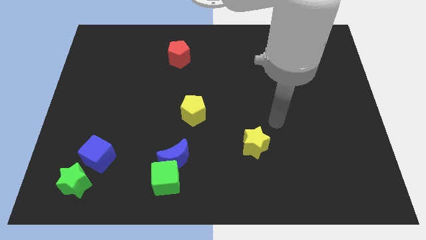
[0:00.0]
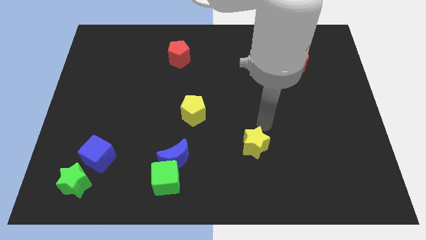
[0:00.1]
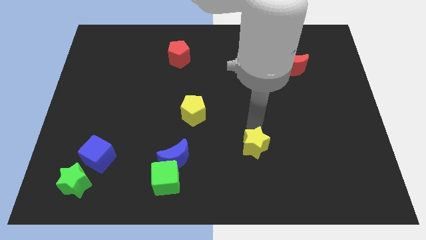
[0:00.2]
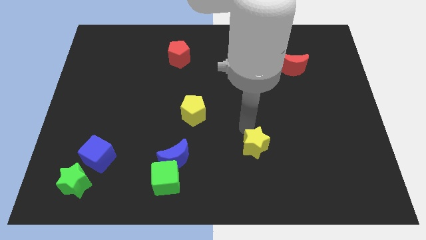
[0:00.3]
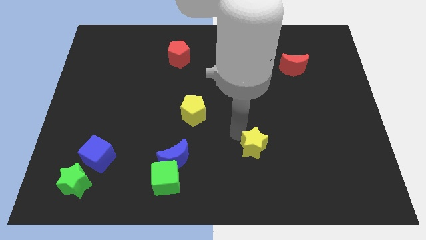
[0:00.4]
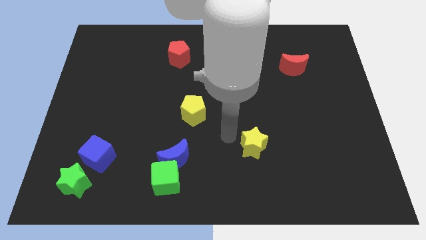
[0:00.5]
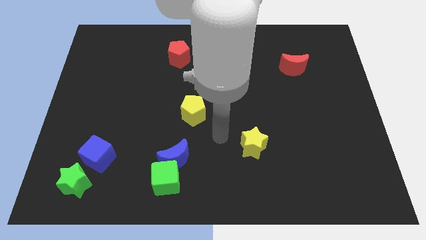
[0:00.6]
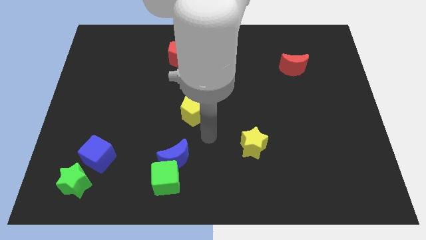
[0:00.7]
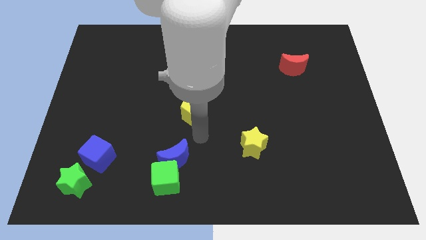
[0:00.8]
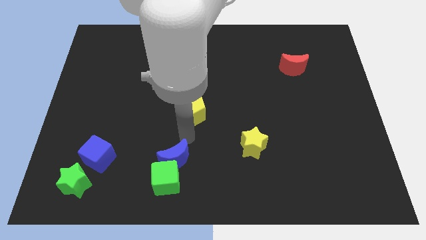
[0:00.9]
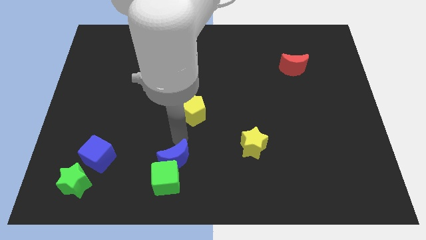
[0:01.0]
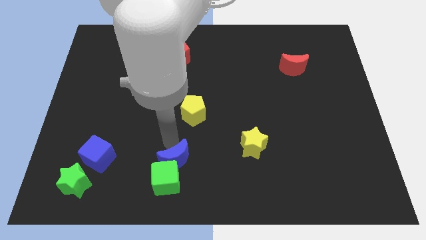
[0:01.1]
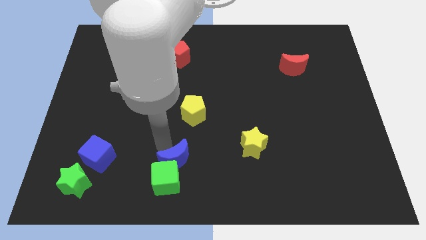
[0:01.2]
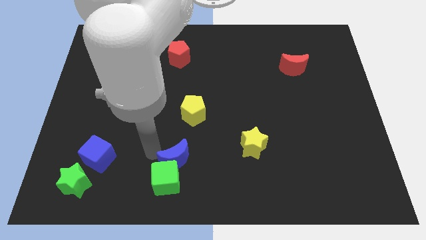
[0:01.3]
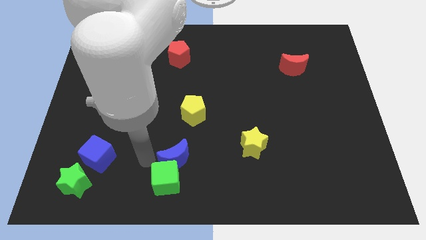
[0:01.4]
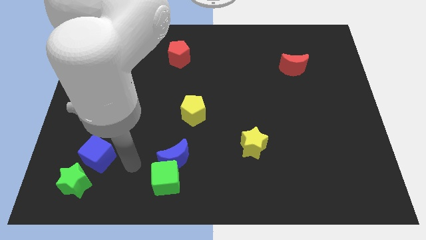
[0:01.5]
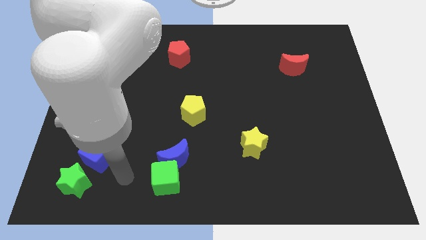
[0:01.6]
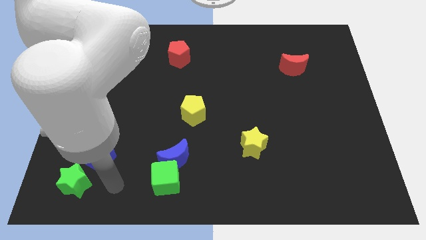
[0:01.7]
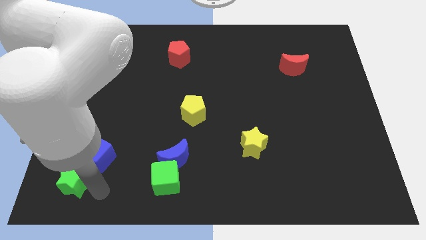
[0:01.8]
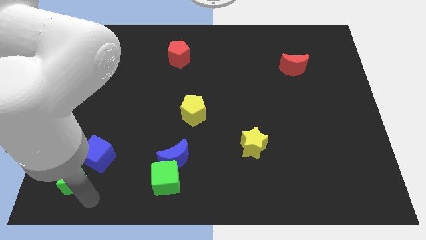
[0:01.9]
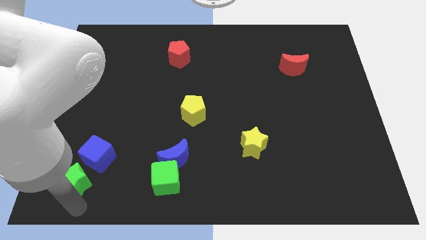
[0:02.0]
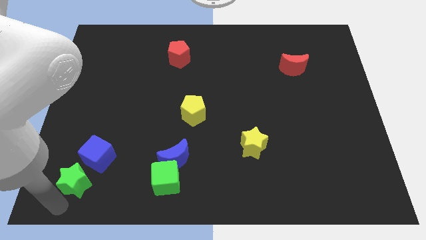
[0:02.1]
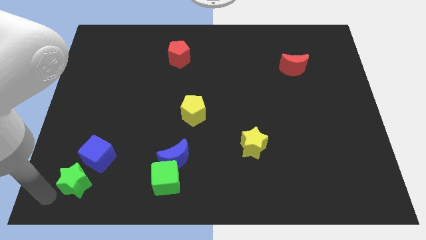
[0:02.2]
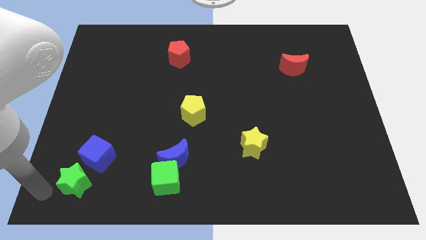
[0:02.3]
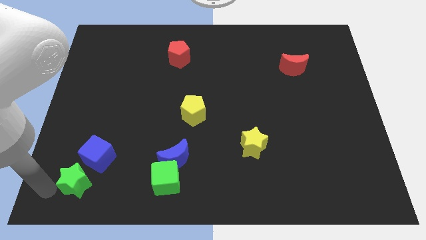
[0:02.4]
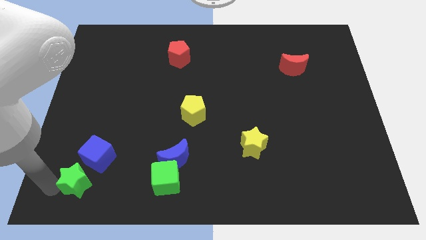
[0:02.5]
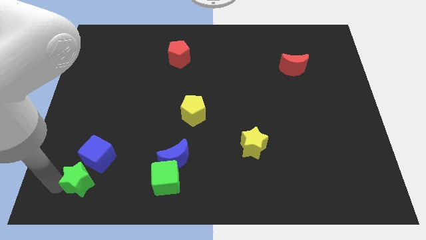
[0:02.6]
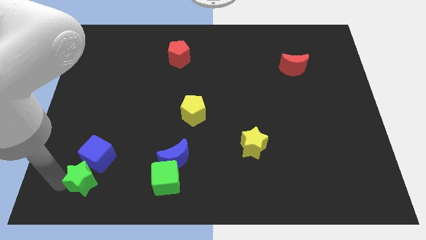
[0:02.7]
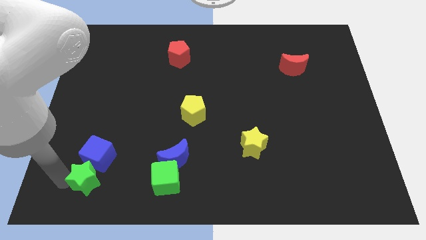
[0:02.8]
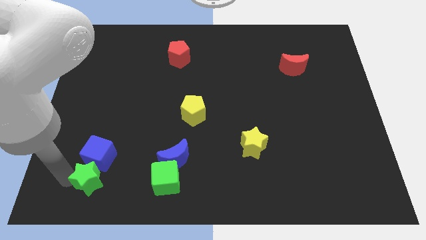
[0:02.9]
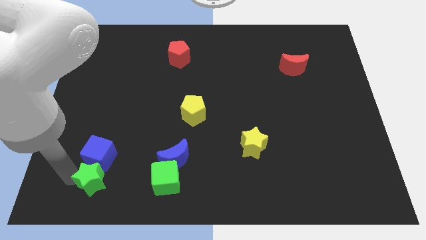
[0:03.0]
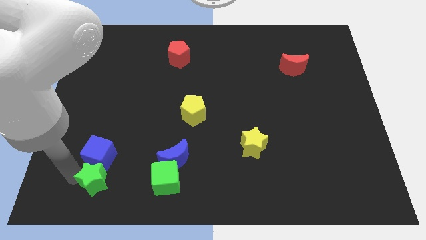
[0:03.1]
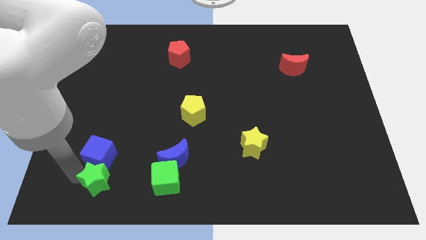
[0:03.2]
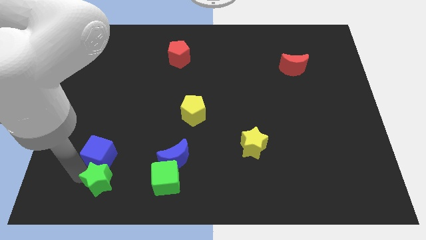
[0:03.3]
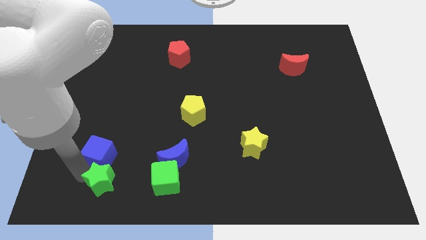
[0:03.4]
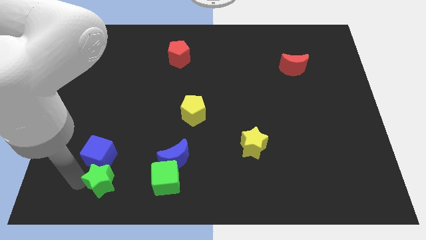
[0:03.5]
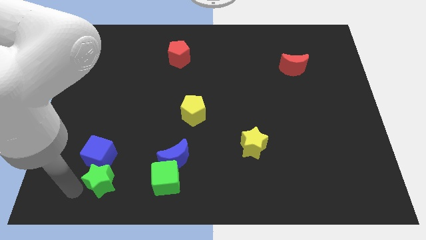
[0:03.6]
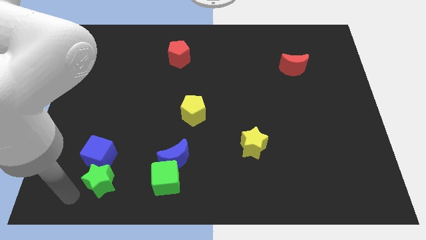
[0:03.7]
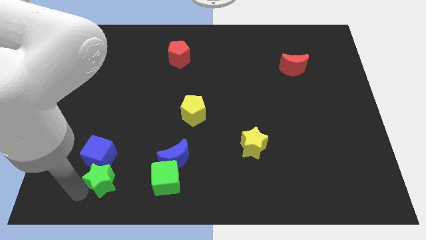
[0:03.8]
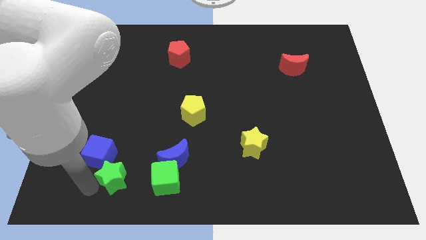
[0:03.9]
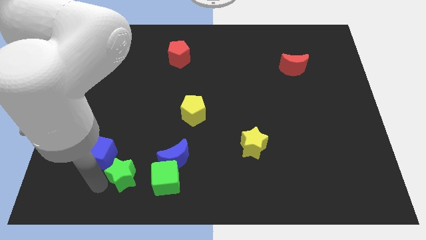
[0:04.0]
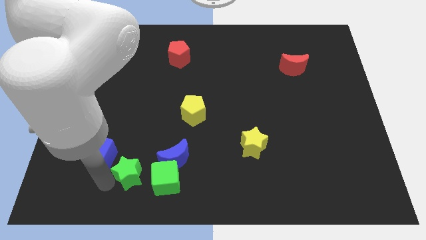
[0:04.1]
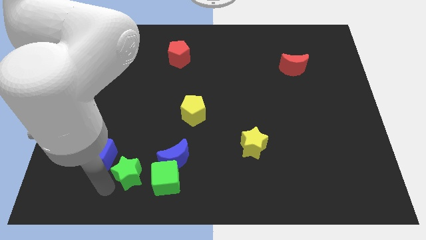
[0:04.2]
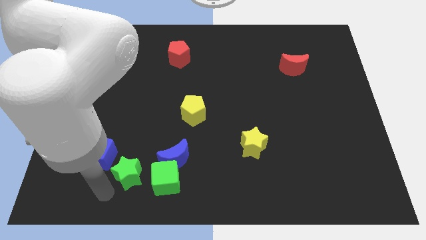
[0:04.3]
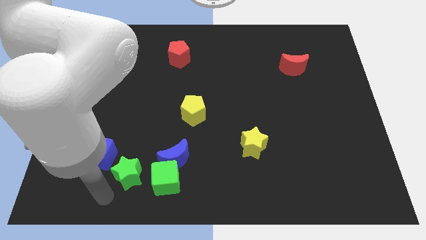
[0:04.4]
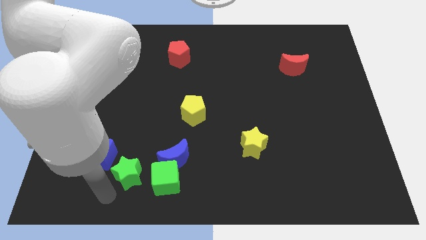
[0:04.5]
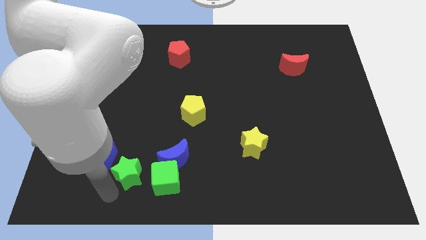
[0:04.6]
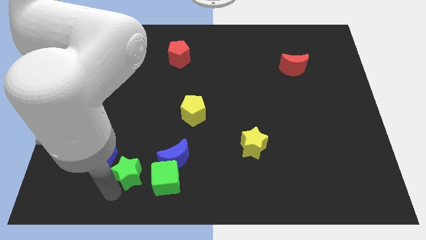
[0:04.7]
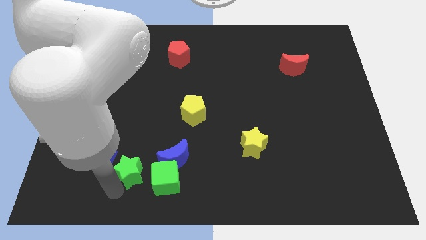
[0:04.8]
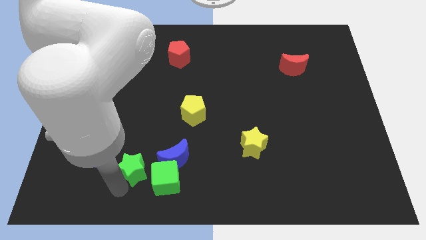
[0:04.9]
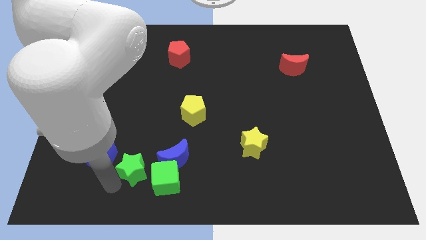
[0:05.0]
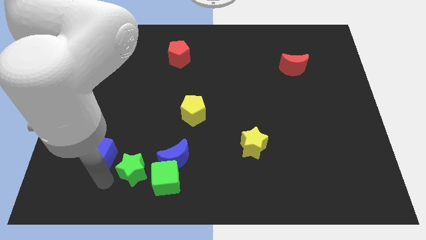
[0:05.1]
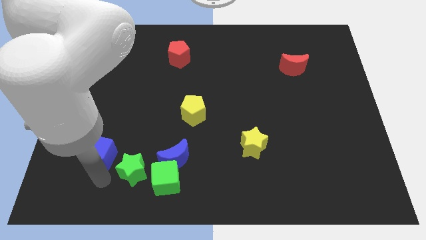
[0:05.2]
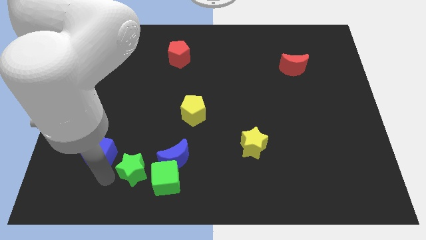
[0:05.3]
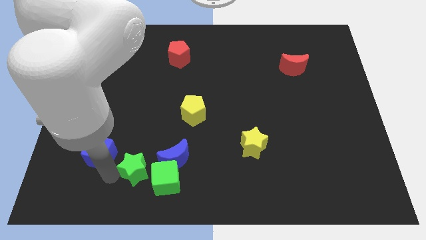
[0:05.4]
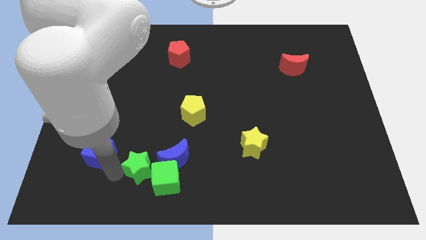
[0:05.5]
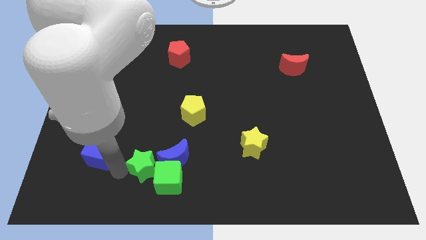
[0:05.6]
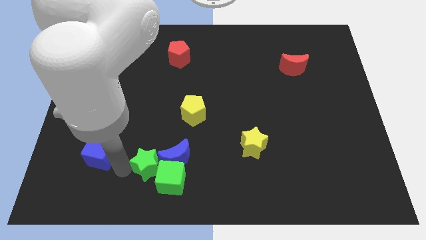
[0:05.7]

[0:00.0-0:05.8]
push the green star to the blue moon

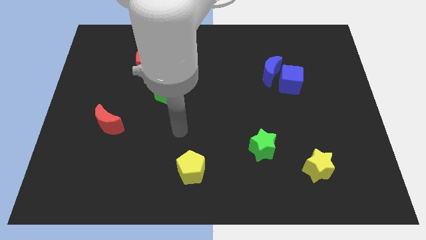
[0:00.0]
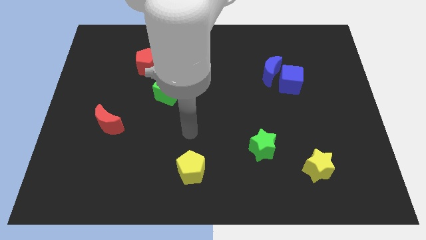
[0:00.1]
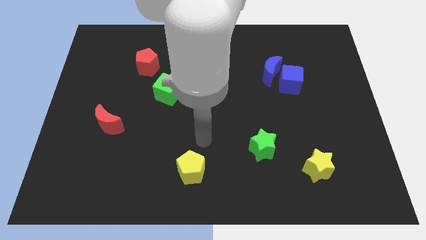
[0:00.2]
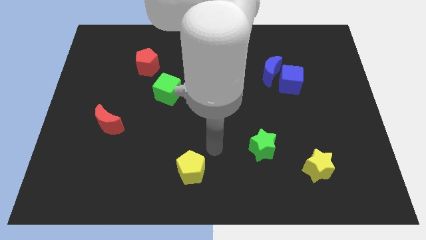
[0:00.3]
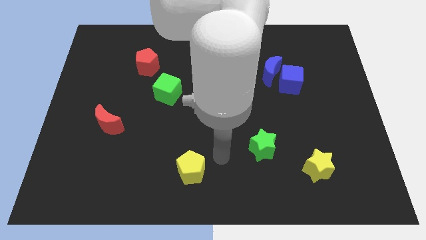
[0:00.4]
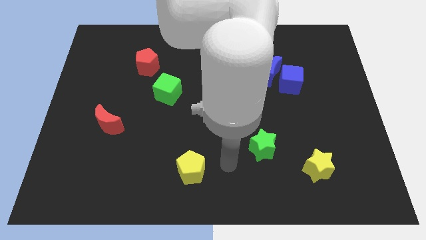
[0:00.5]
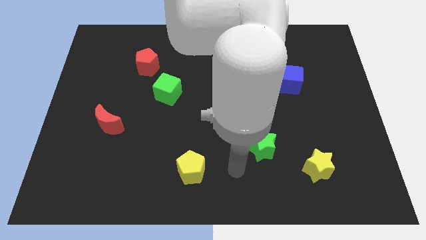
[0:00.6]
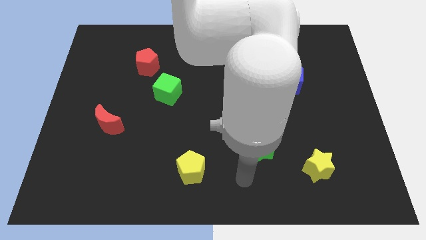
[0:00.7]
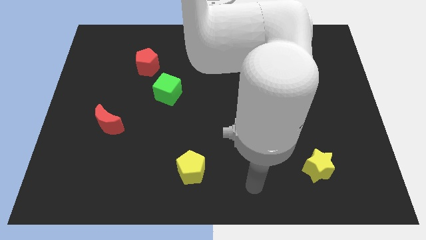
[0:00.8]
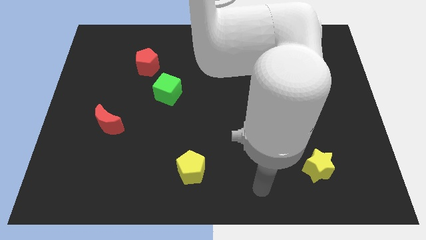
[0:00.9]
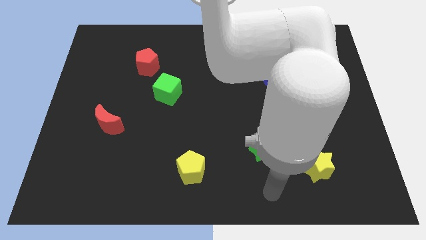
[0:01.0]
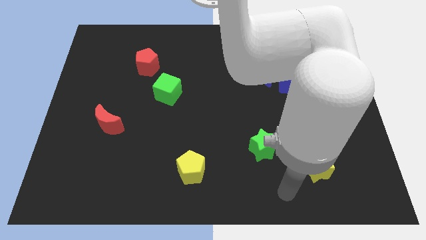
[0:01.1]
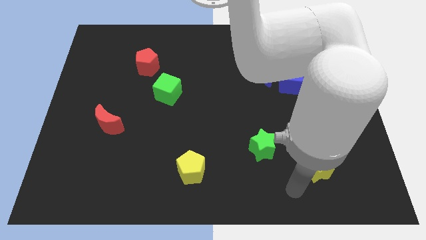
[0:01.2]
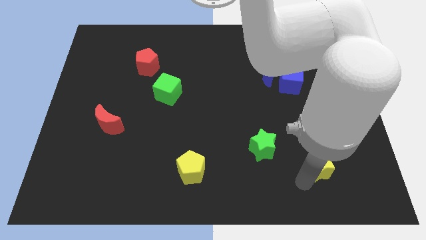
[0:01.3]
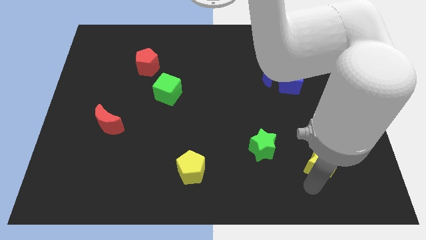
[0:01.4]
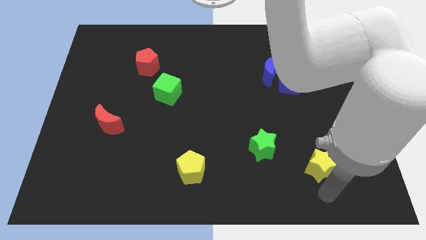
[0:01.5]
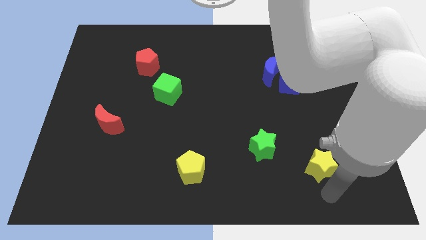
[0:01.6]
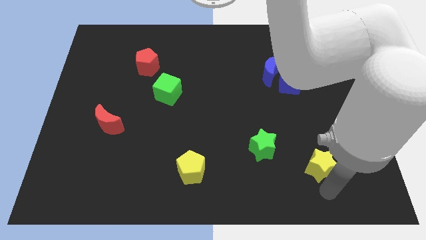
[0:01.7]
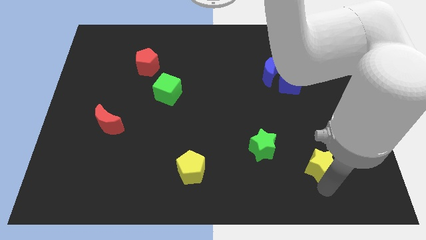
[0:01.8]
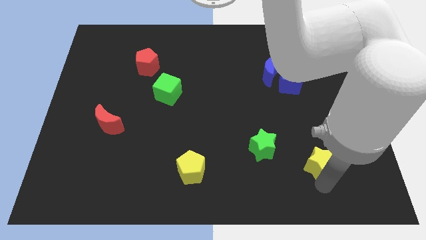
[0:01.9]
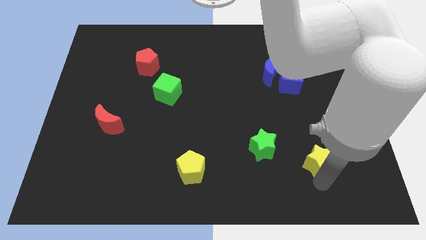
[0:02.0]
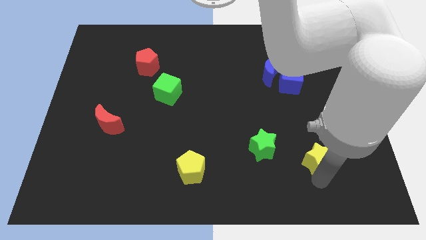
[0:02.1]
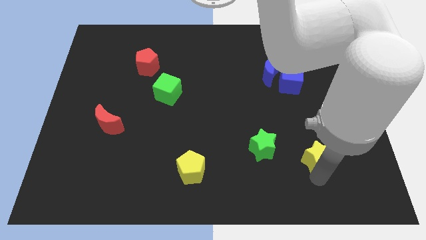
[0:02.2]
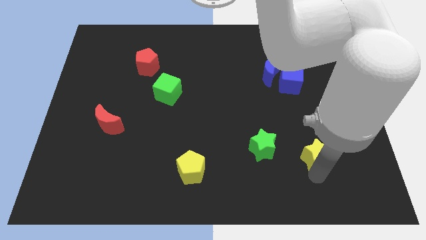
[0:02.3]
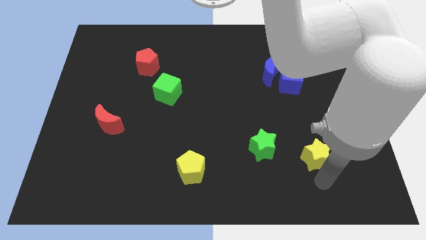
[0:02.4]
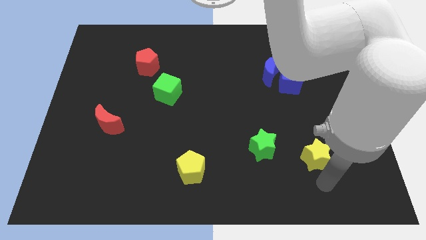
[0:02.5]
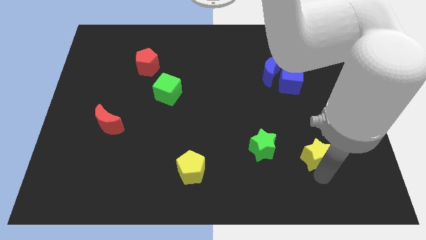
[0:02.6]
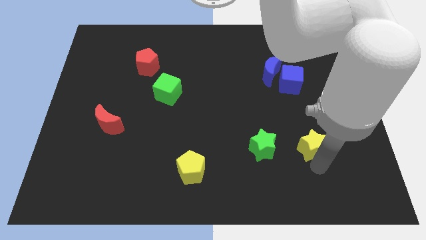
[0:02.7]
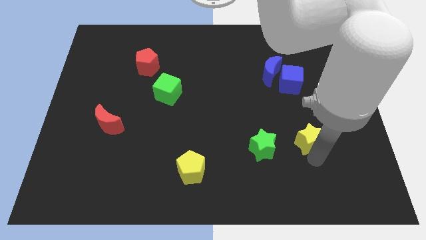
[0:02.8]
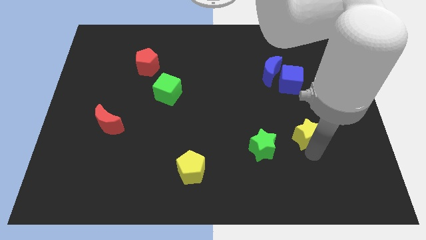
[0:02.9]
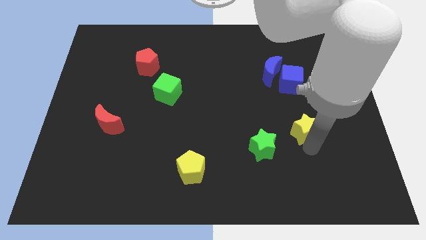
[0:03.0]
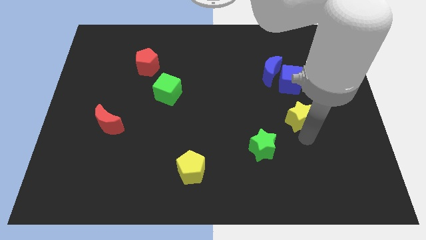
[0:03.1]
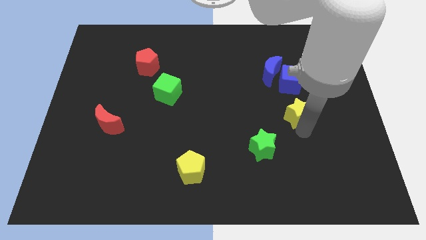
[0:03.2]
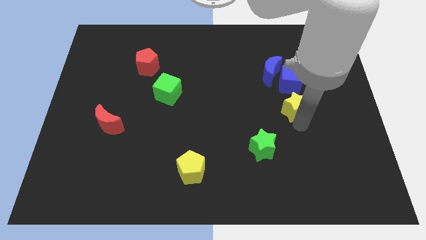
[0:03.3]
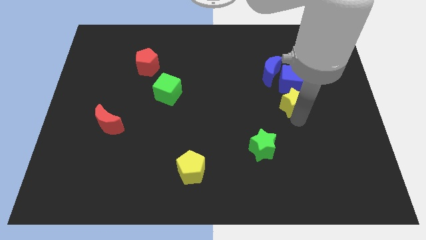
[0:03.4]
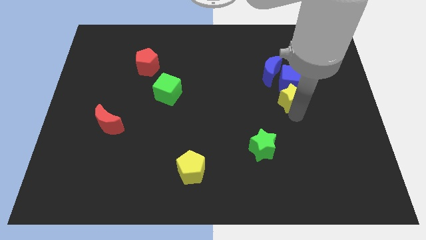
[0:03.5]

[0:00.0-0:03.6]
push the yellow star next to the blue cube
